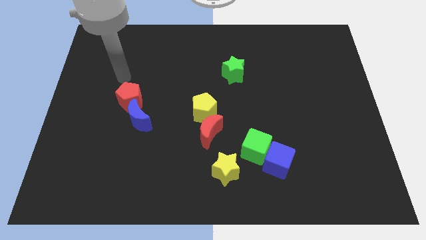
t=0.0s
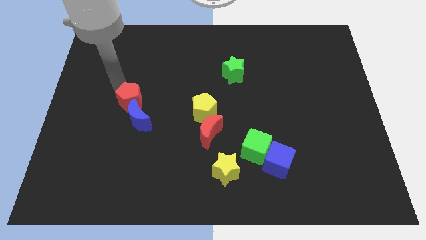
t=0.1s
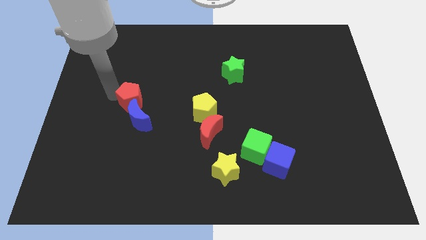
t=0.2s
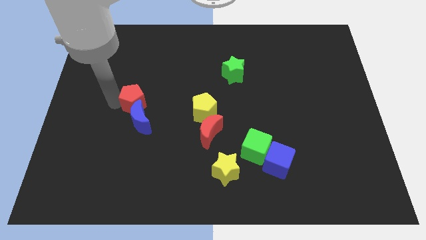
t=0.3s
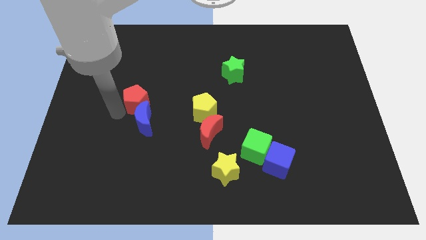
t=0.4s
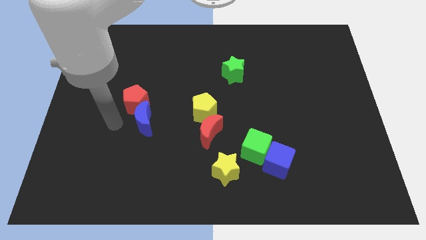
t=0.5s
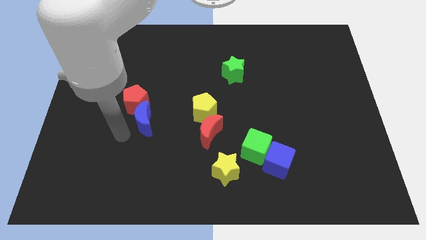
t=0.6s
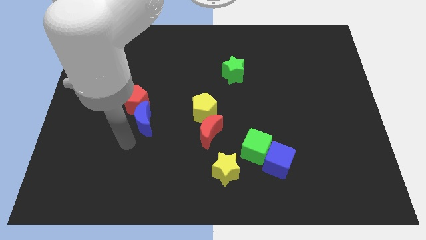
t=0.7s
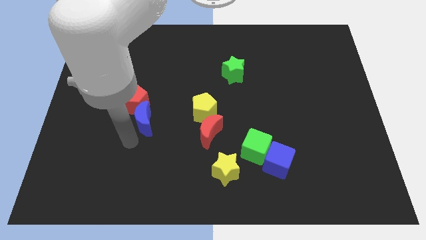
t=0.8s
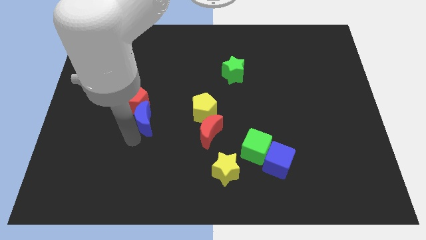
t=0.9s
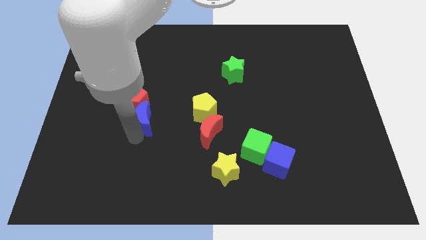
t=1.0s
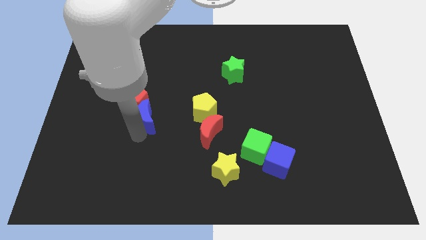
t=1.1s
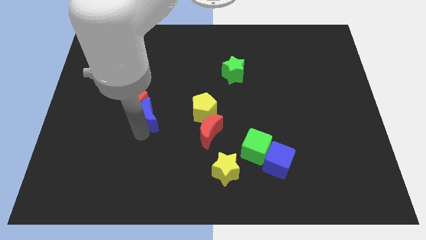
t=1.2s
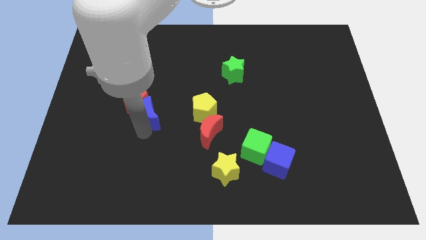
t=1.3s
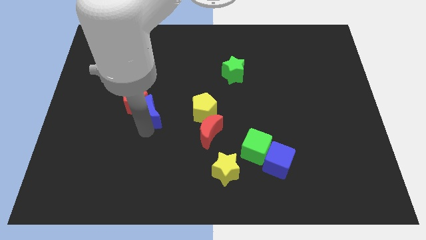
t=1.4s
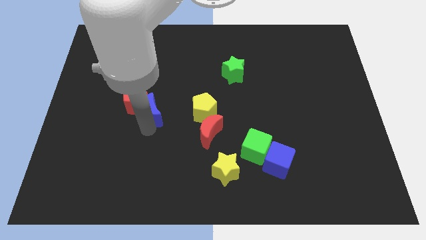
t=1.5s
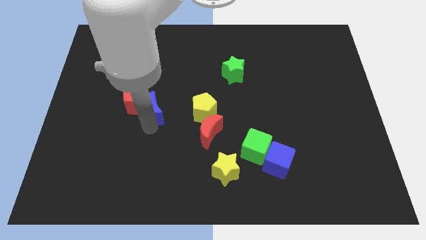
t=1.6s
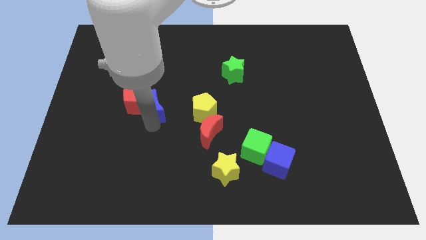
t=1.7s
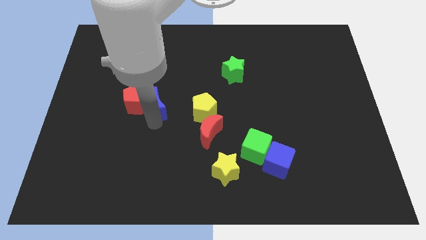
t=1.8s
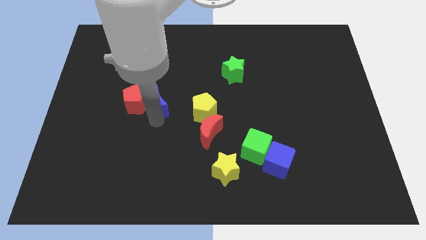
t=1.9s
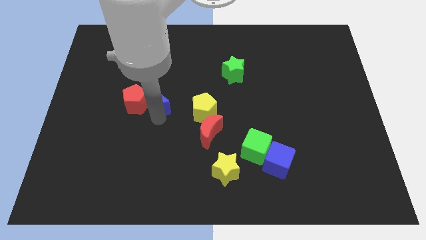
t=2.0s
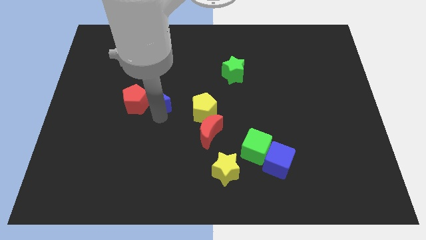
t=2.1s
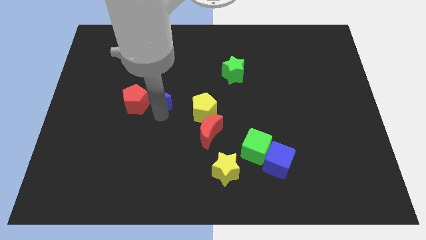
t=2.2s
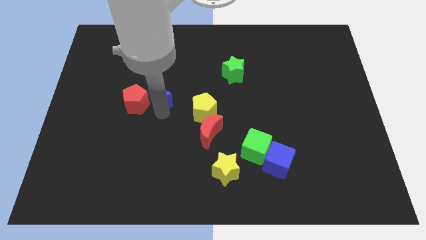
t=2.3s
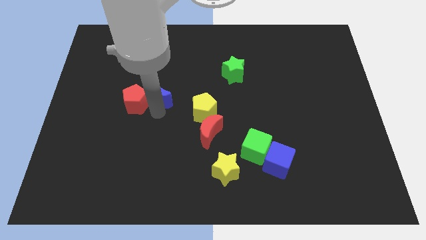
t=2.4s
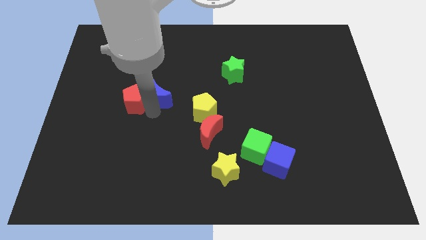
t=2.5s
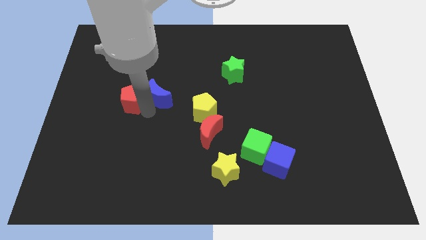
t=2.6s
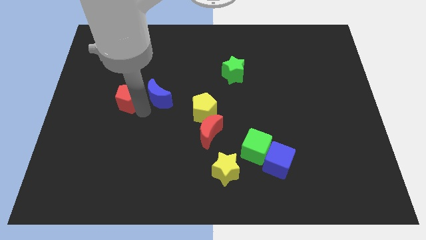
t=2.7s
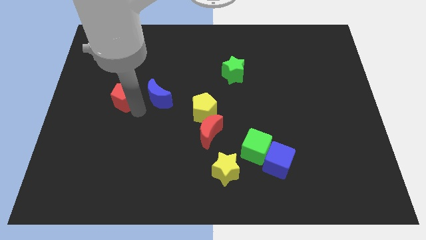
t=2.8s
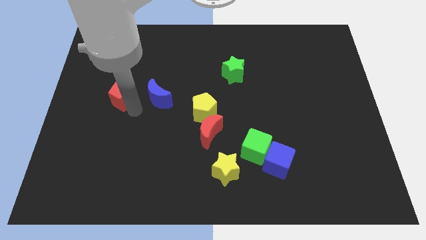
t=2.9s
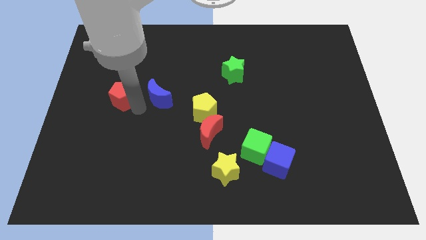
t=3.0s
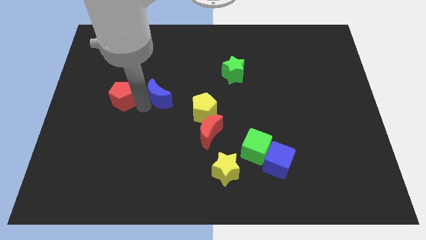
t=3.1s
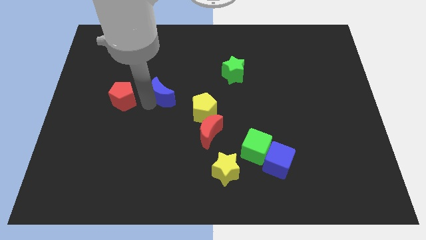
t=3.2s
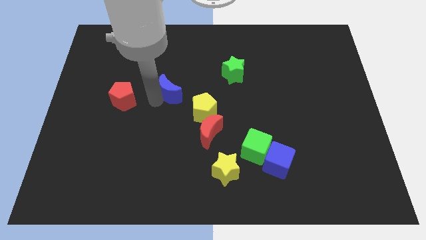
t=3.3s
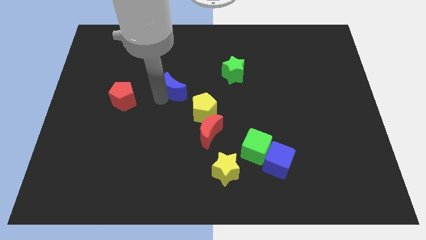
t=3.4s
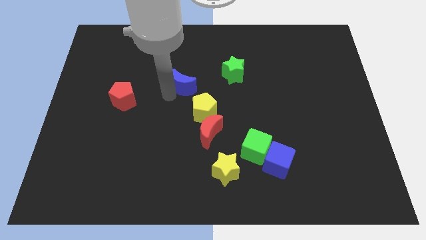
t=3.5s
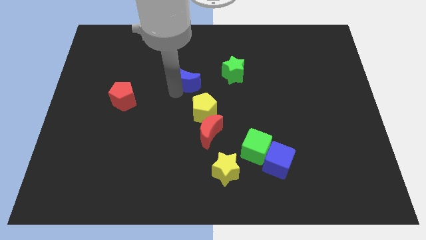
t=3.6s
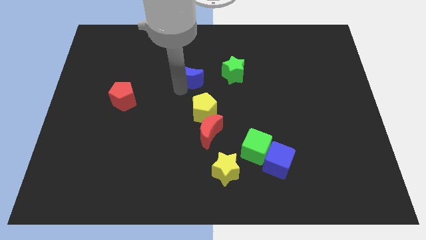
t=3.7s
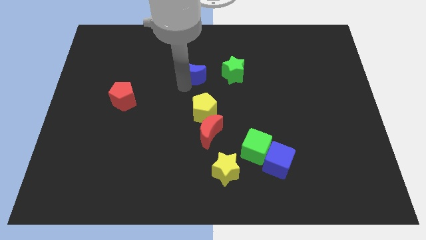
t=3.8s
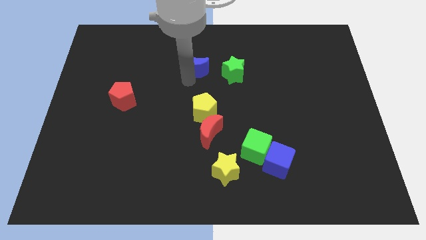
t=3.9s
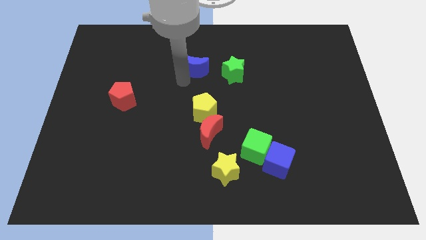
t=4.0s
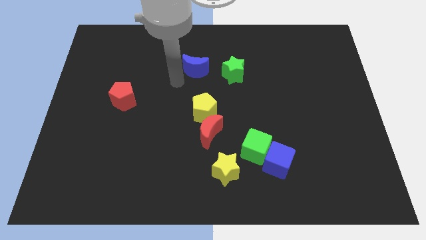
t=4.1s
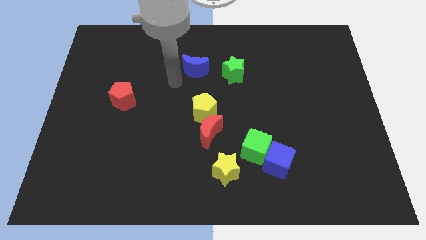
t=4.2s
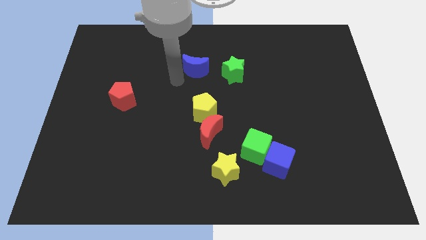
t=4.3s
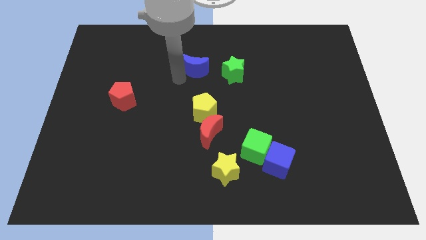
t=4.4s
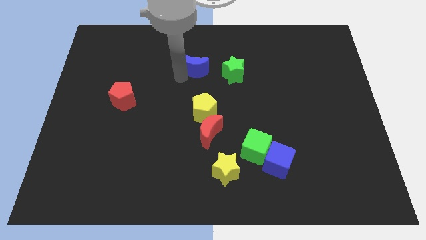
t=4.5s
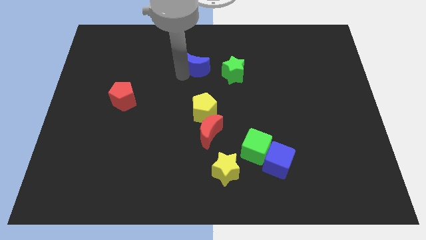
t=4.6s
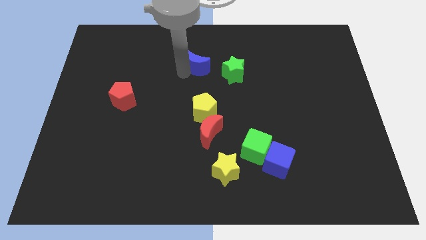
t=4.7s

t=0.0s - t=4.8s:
move the blue moon diagonally up and to the left of the green star

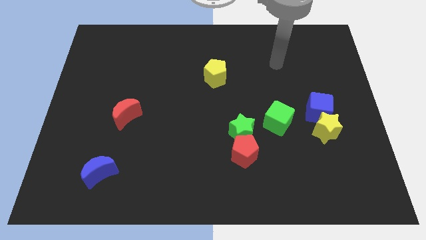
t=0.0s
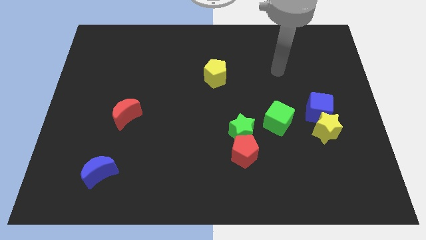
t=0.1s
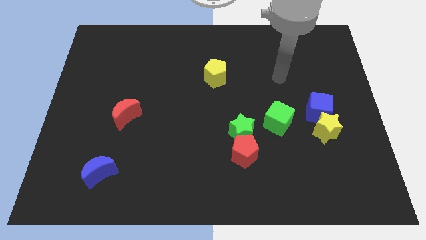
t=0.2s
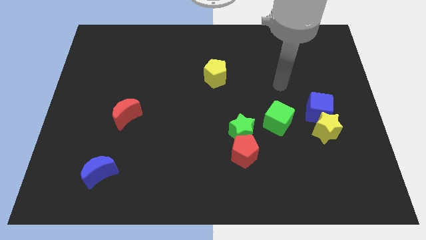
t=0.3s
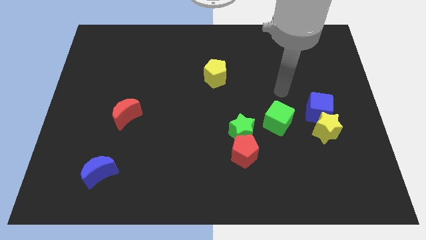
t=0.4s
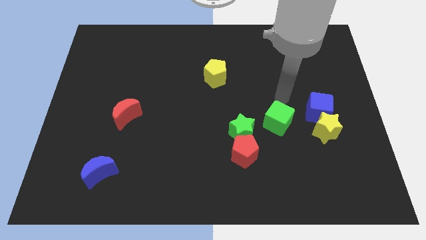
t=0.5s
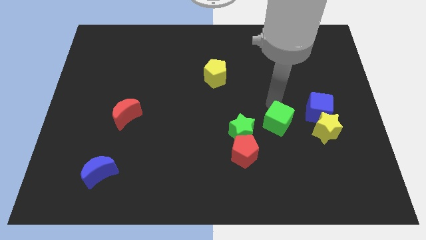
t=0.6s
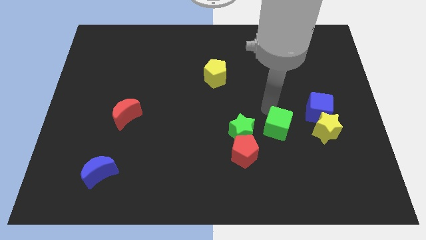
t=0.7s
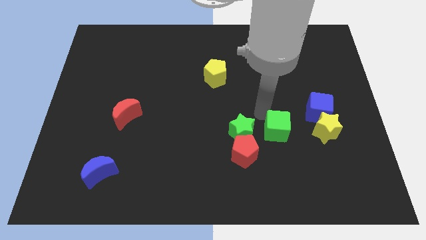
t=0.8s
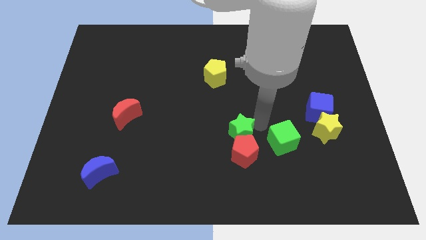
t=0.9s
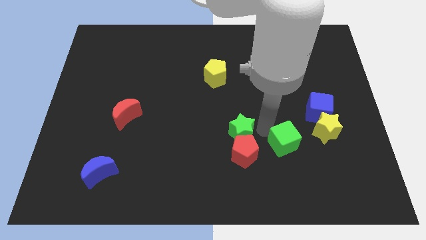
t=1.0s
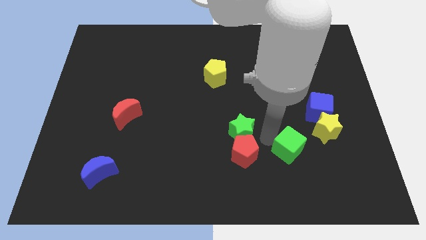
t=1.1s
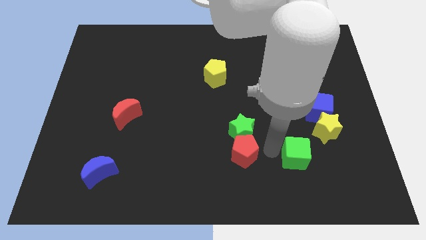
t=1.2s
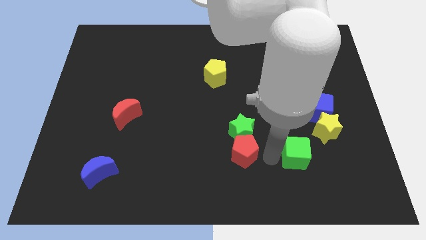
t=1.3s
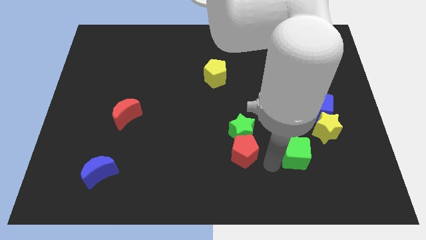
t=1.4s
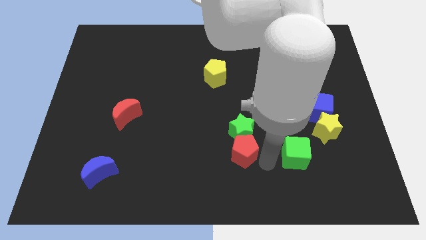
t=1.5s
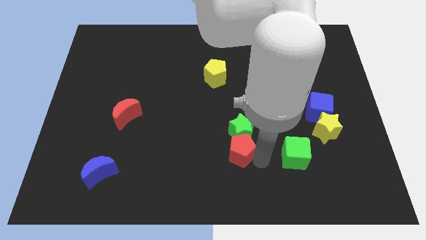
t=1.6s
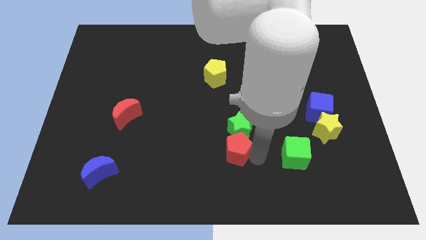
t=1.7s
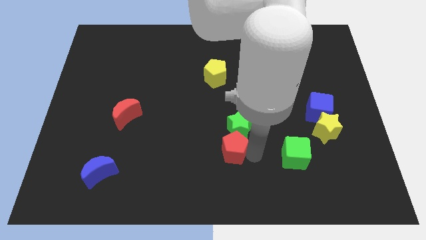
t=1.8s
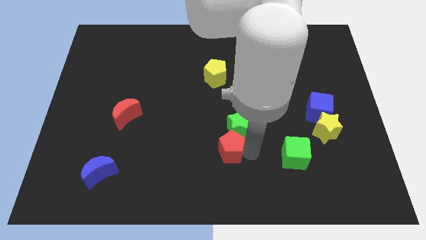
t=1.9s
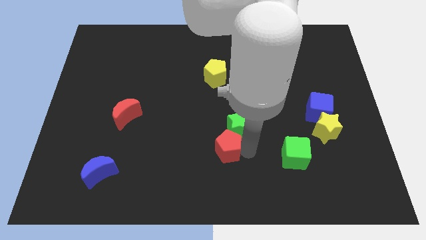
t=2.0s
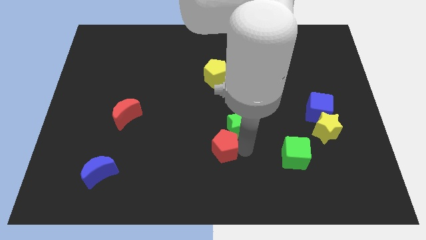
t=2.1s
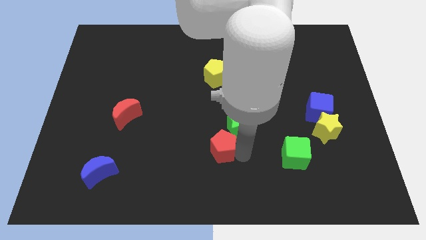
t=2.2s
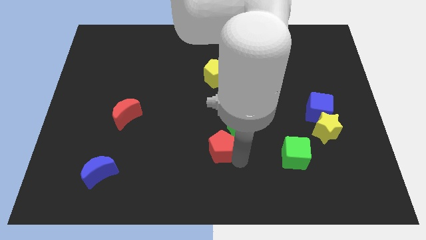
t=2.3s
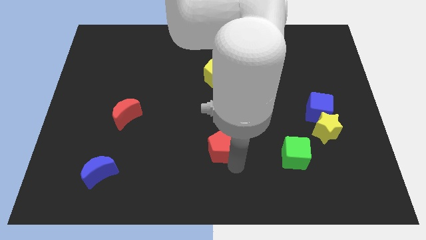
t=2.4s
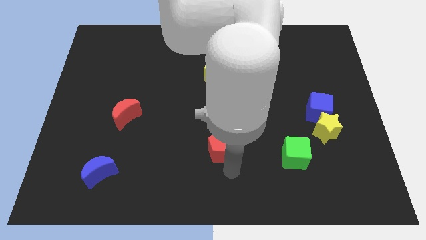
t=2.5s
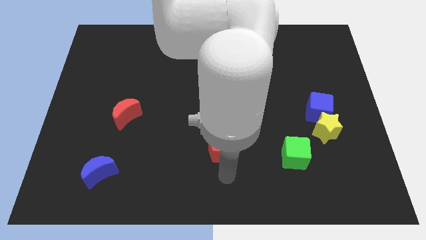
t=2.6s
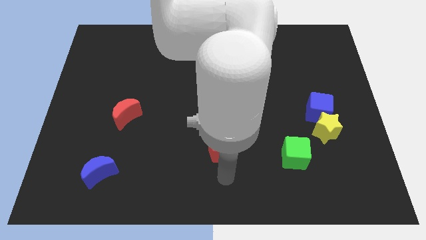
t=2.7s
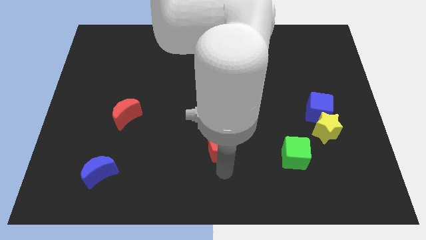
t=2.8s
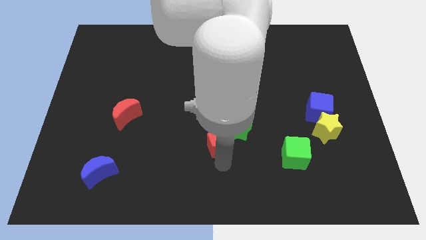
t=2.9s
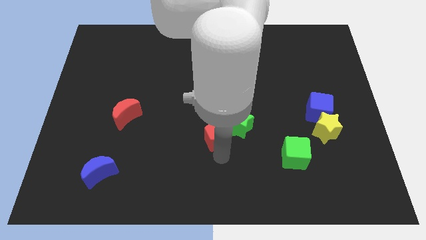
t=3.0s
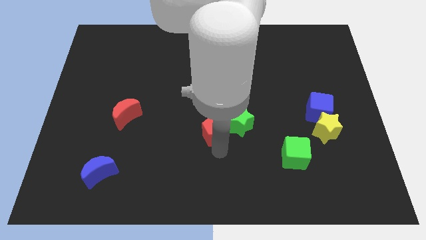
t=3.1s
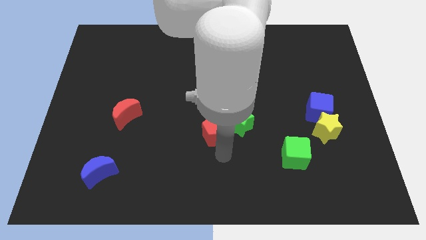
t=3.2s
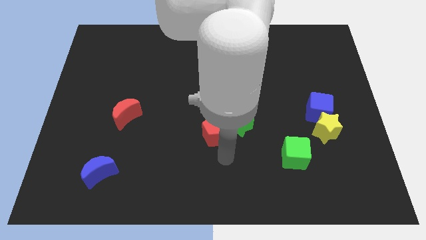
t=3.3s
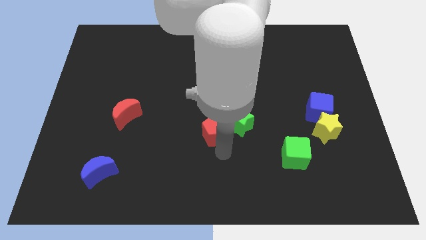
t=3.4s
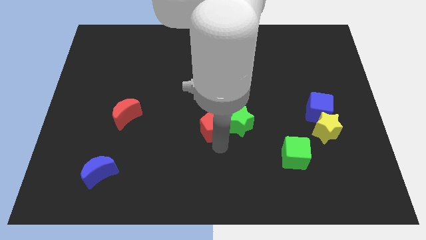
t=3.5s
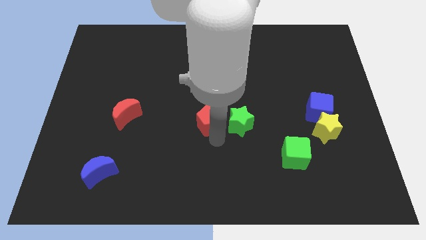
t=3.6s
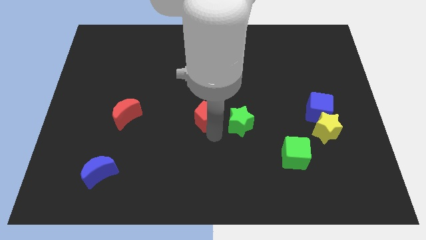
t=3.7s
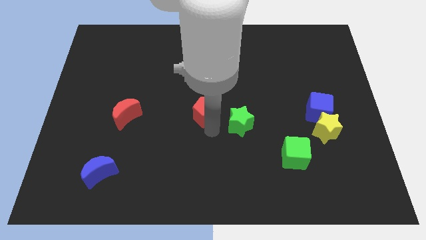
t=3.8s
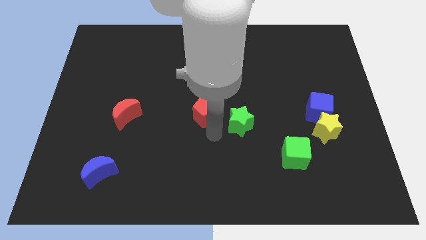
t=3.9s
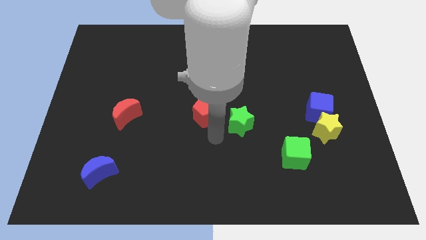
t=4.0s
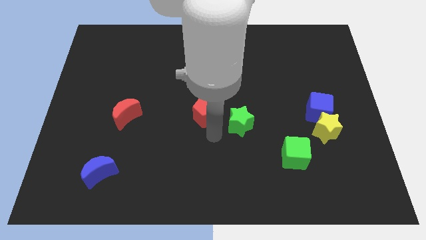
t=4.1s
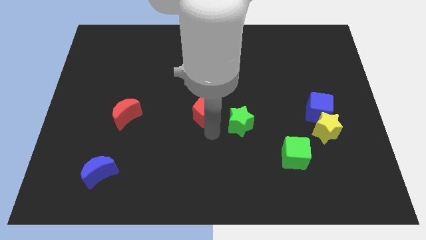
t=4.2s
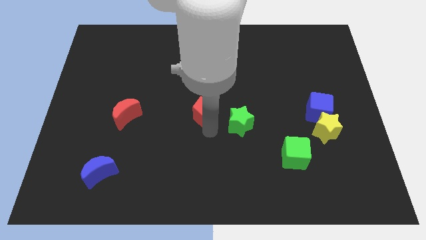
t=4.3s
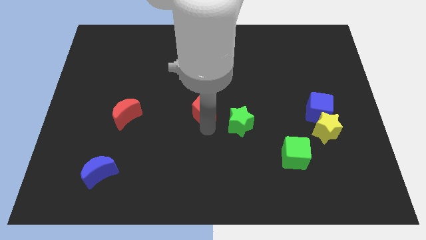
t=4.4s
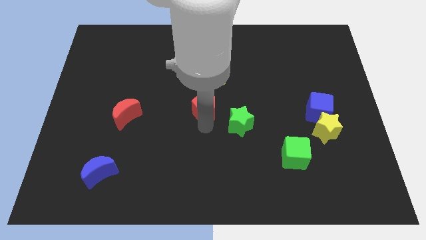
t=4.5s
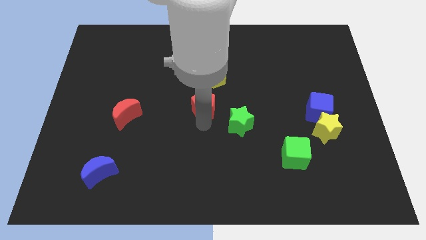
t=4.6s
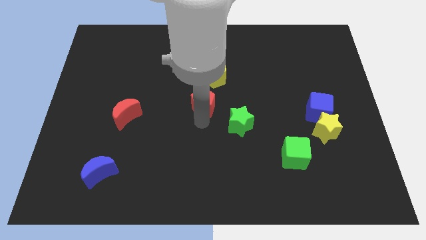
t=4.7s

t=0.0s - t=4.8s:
put the red pentagon to the bottom left of the yellow pentagon
